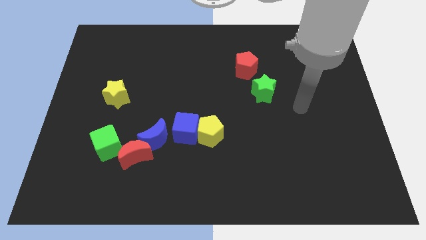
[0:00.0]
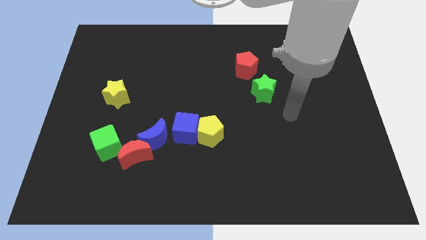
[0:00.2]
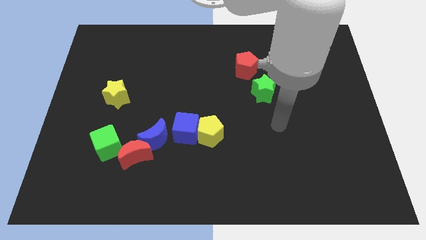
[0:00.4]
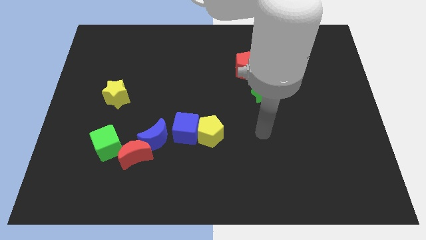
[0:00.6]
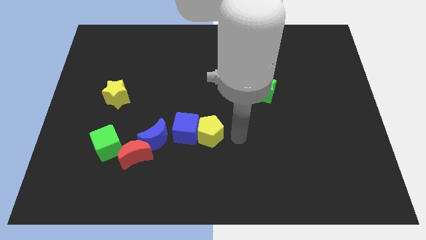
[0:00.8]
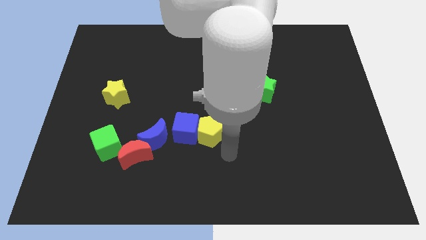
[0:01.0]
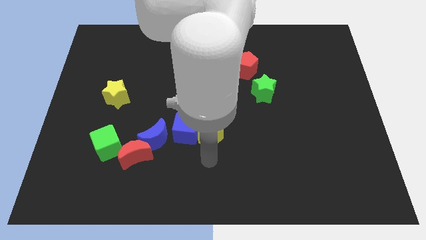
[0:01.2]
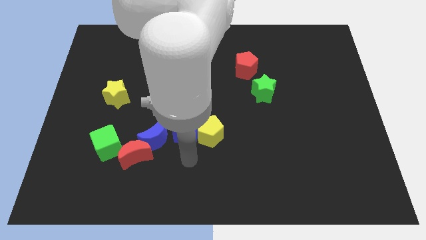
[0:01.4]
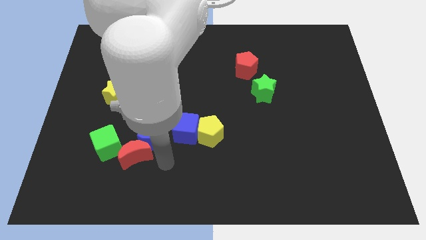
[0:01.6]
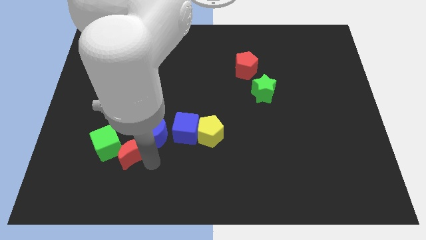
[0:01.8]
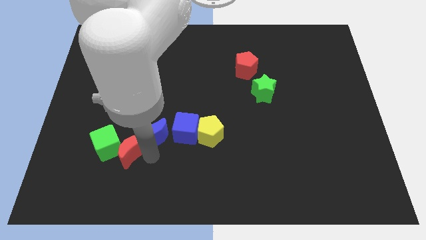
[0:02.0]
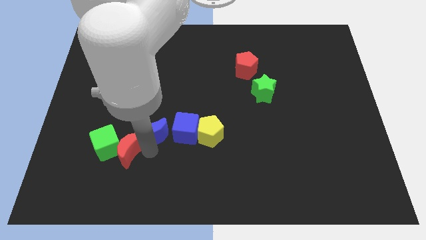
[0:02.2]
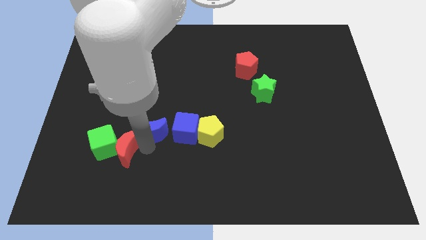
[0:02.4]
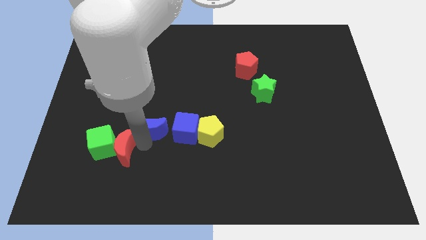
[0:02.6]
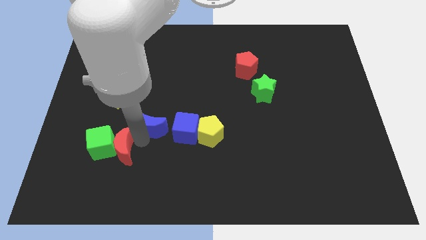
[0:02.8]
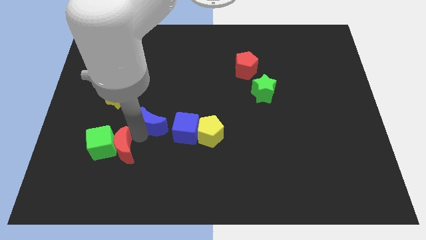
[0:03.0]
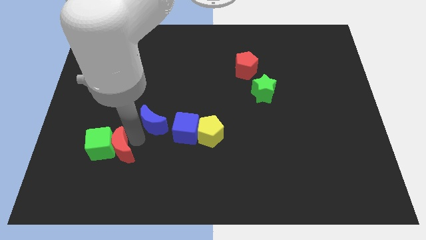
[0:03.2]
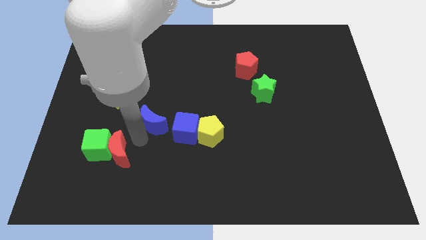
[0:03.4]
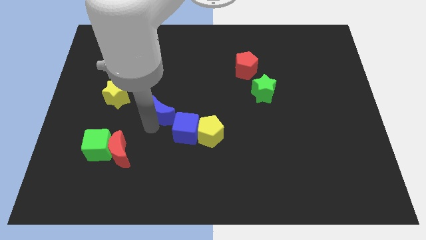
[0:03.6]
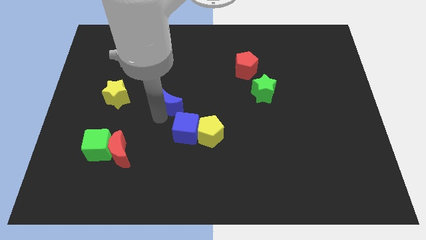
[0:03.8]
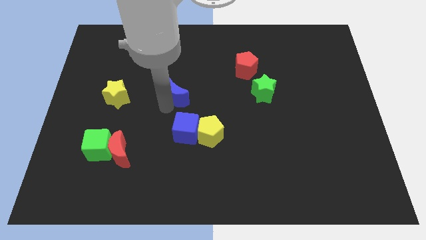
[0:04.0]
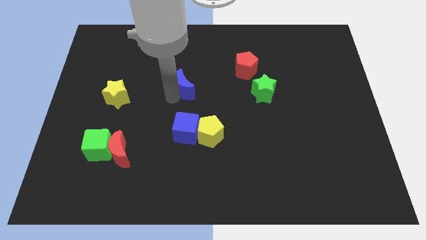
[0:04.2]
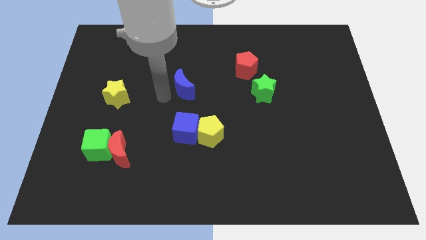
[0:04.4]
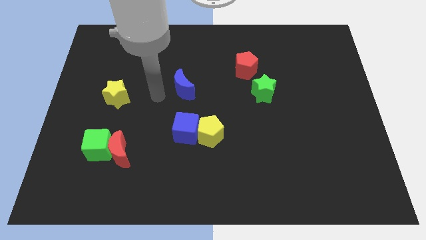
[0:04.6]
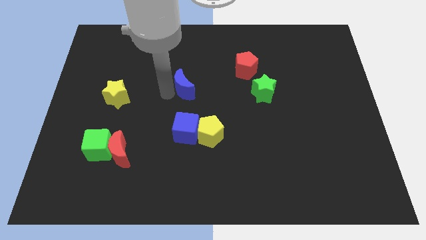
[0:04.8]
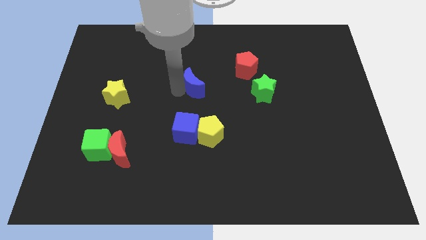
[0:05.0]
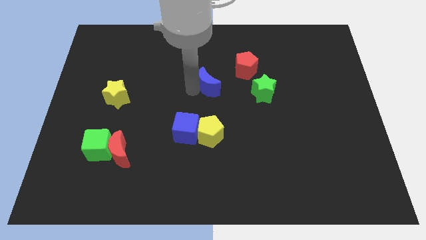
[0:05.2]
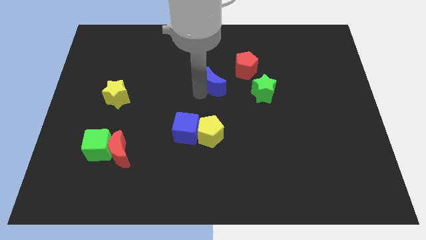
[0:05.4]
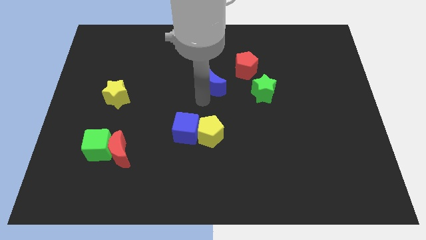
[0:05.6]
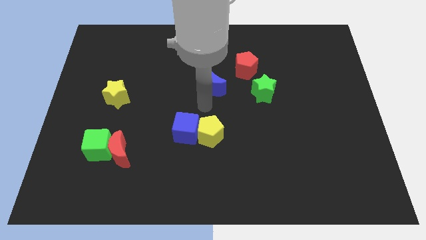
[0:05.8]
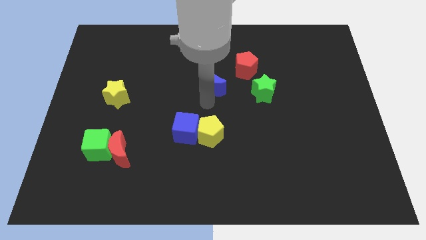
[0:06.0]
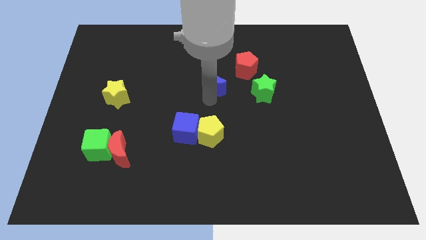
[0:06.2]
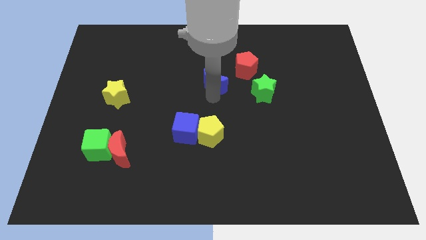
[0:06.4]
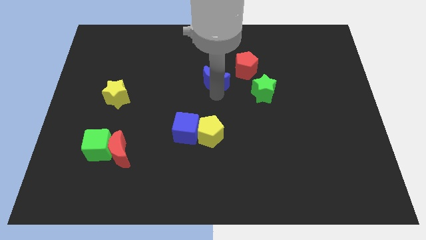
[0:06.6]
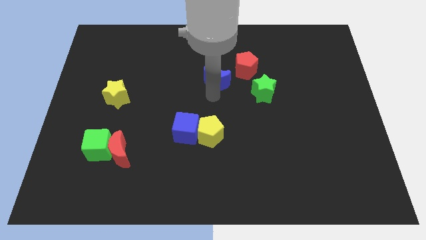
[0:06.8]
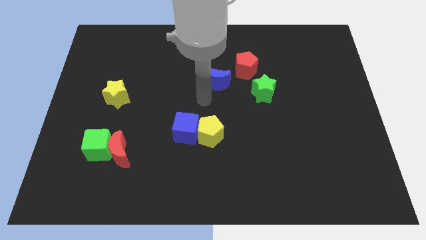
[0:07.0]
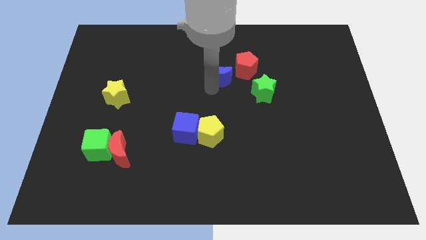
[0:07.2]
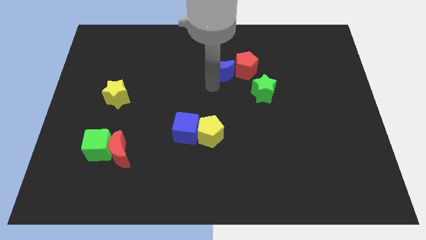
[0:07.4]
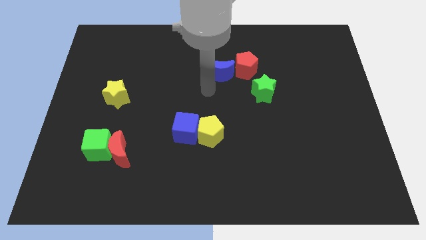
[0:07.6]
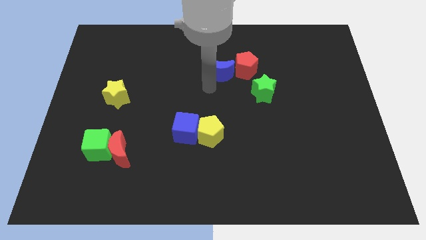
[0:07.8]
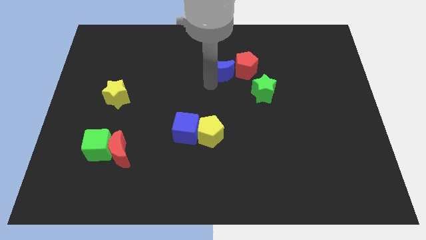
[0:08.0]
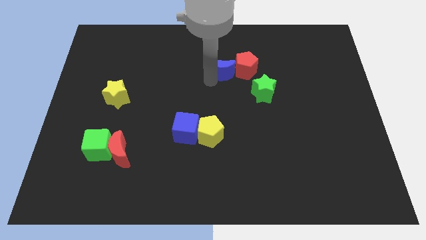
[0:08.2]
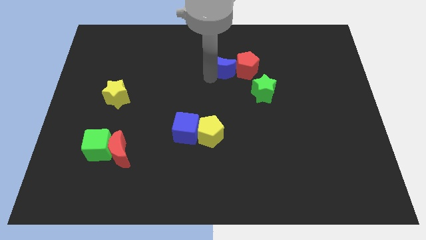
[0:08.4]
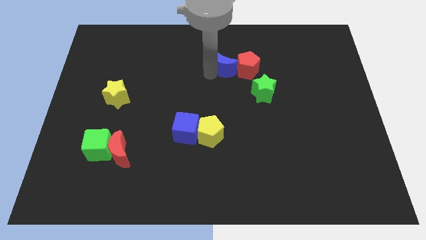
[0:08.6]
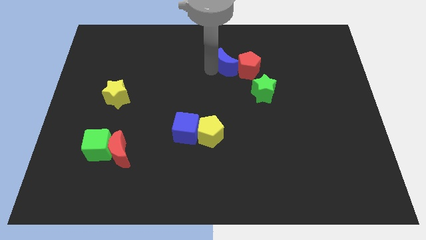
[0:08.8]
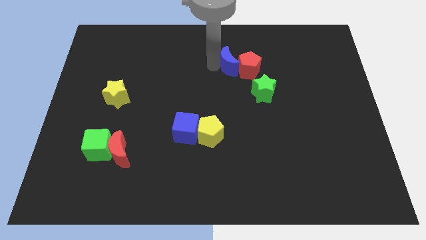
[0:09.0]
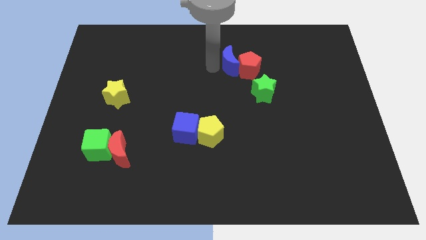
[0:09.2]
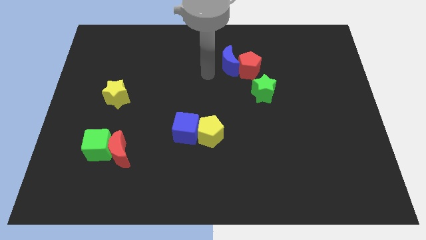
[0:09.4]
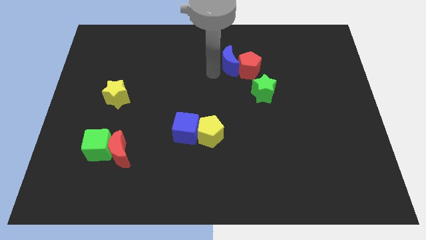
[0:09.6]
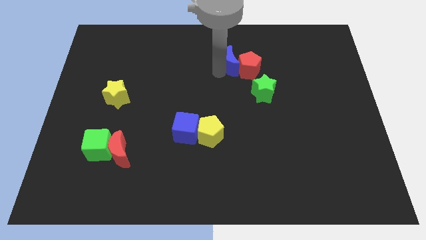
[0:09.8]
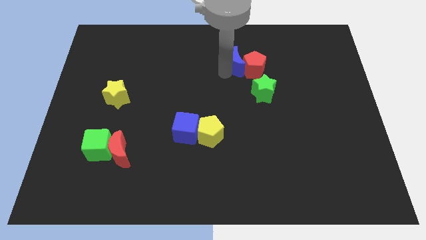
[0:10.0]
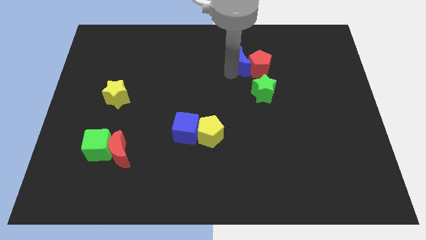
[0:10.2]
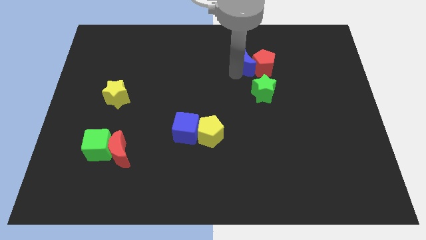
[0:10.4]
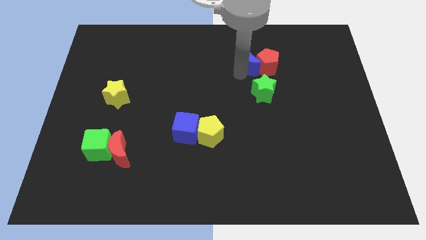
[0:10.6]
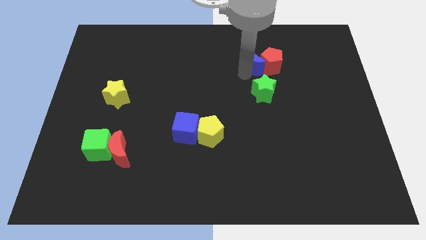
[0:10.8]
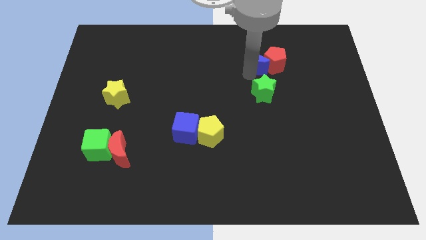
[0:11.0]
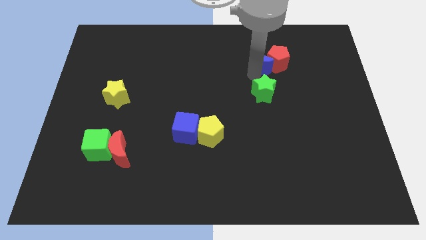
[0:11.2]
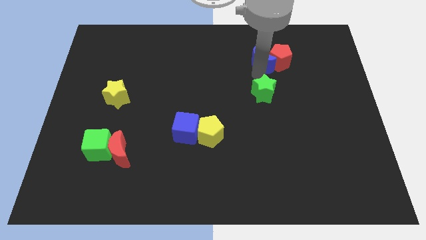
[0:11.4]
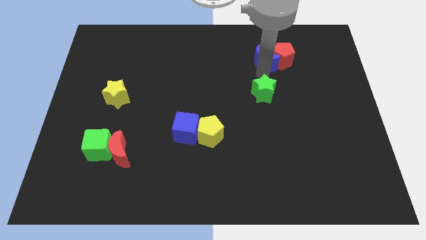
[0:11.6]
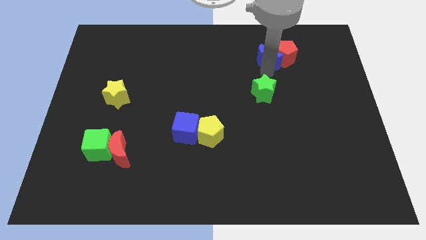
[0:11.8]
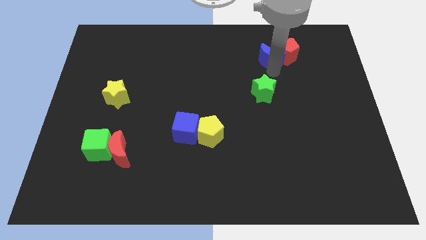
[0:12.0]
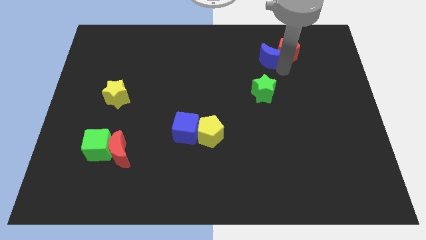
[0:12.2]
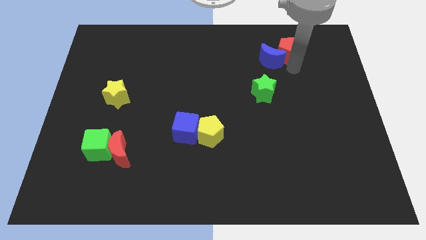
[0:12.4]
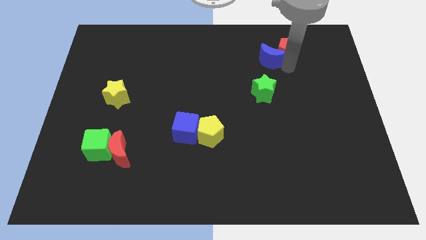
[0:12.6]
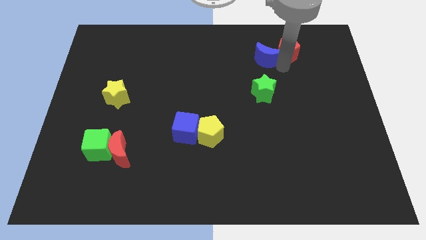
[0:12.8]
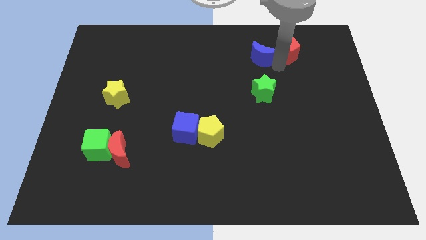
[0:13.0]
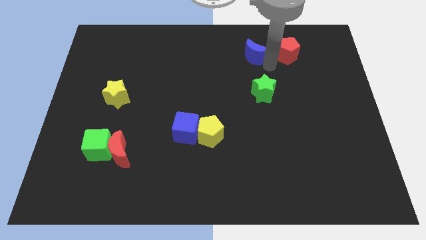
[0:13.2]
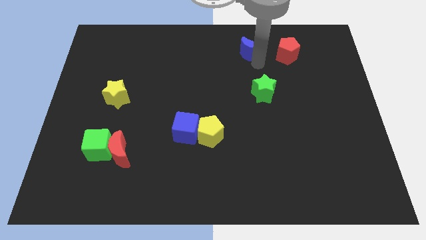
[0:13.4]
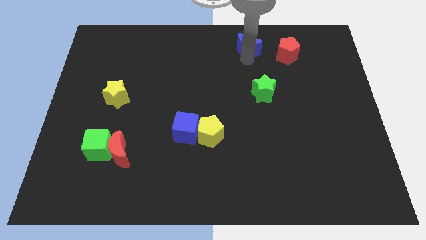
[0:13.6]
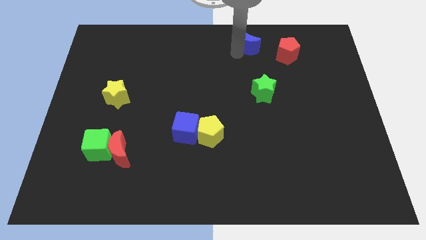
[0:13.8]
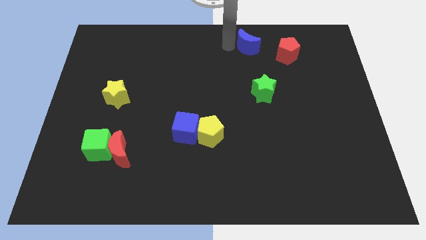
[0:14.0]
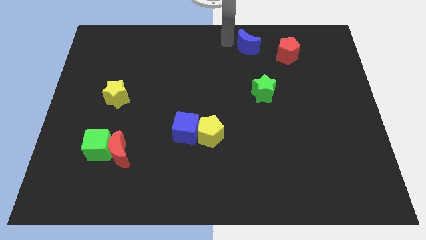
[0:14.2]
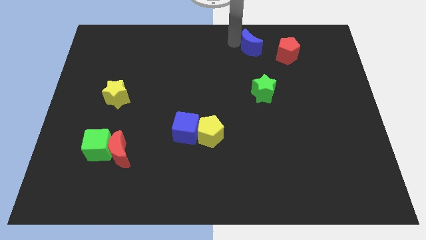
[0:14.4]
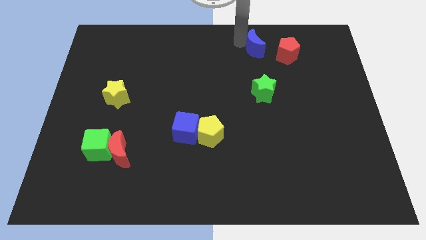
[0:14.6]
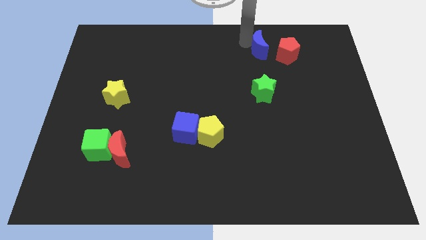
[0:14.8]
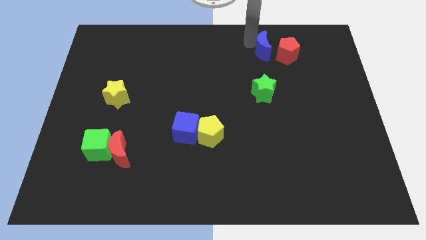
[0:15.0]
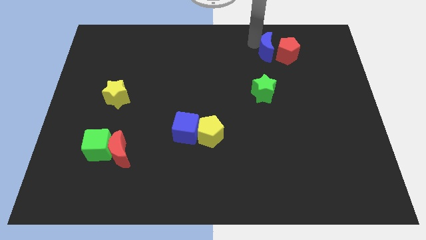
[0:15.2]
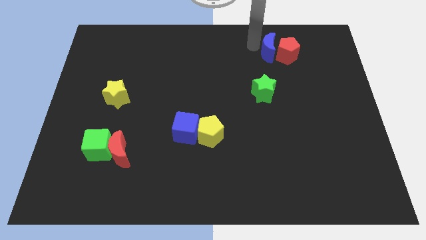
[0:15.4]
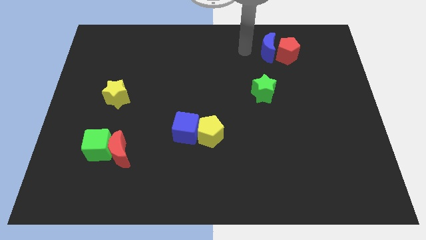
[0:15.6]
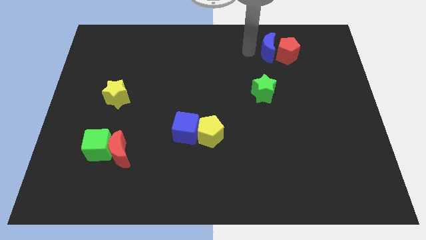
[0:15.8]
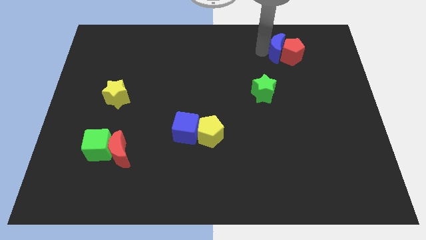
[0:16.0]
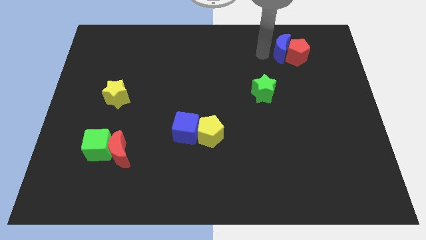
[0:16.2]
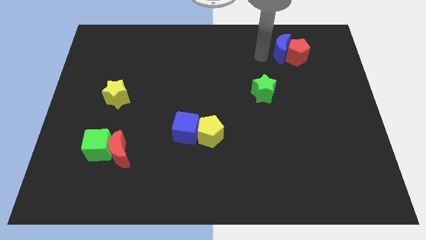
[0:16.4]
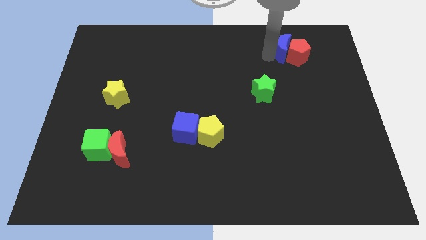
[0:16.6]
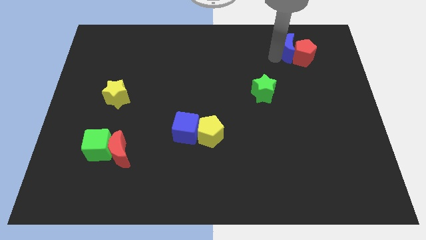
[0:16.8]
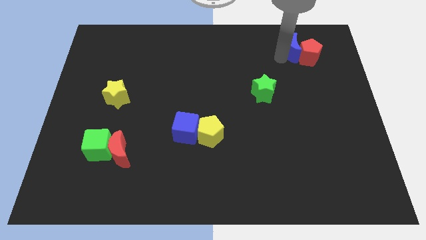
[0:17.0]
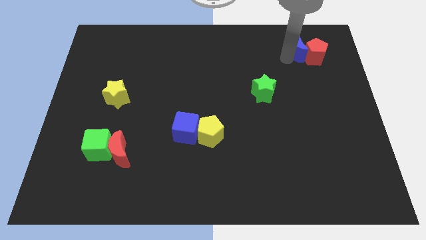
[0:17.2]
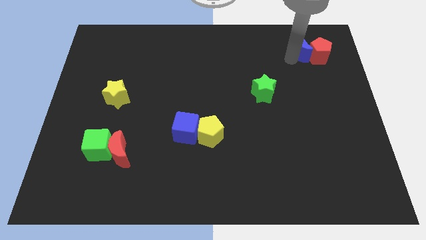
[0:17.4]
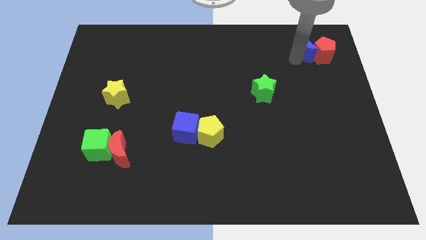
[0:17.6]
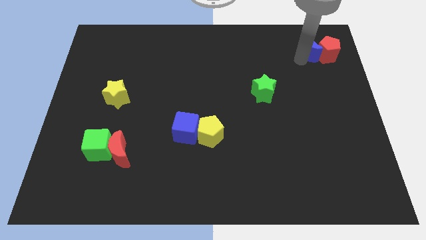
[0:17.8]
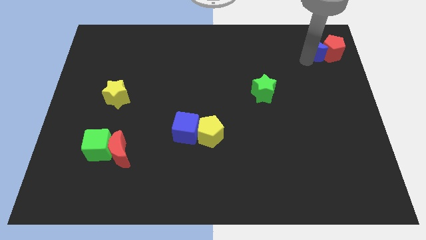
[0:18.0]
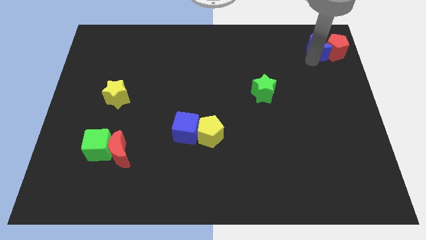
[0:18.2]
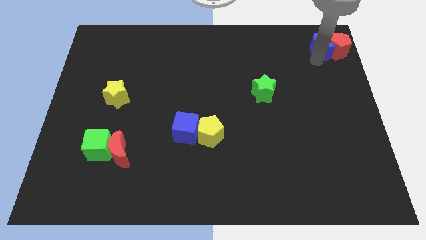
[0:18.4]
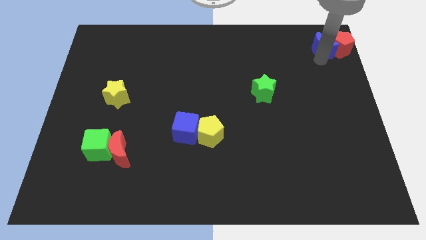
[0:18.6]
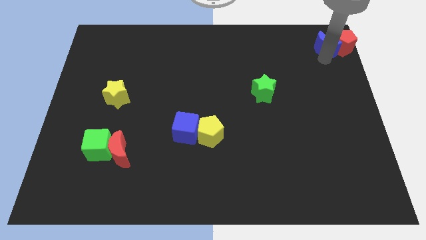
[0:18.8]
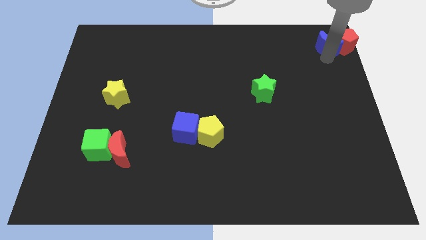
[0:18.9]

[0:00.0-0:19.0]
move the blue moon to the top right
